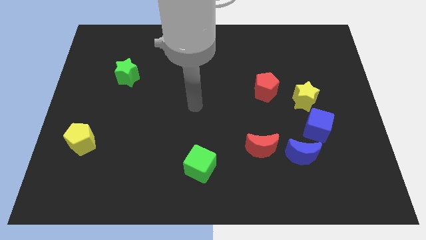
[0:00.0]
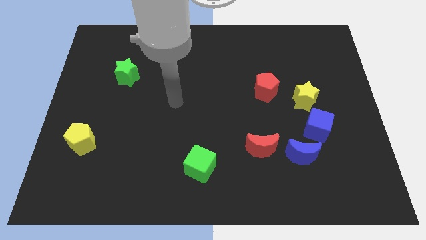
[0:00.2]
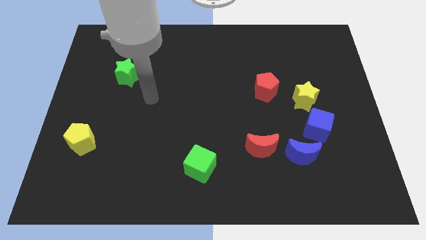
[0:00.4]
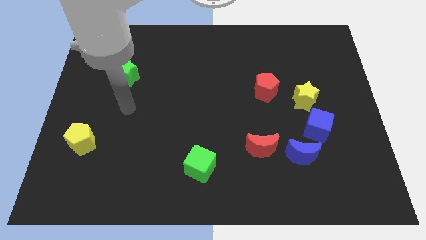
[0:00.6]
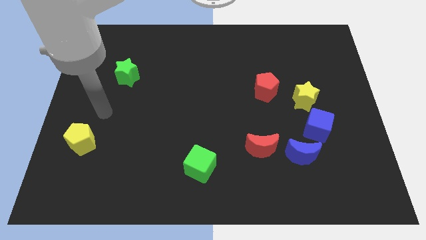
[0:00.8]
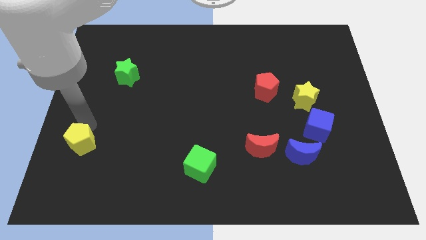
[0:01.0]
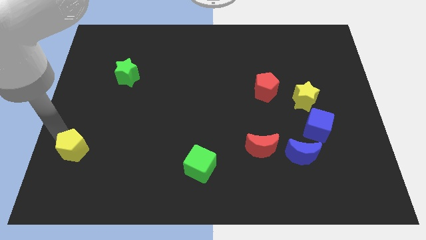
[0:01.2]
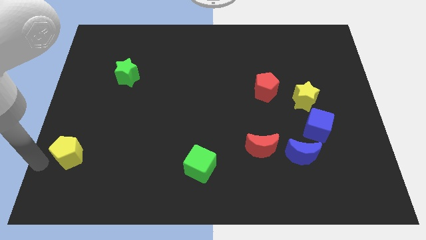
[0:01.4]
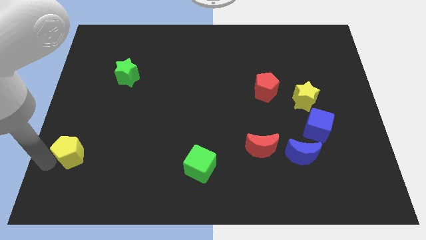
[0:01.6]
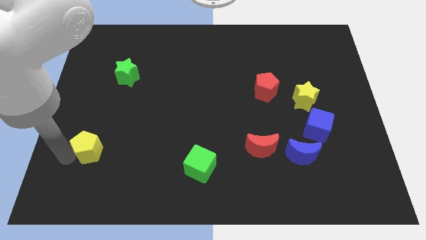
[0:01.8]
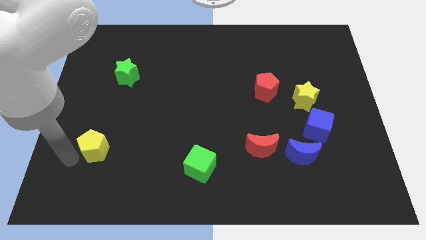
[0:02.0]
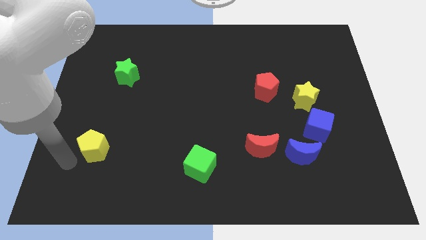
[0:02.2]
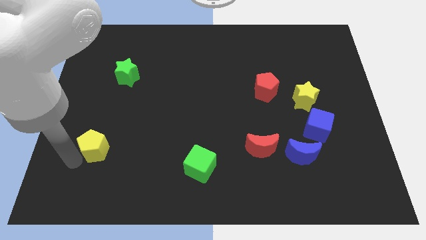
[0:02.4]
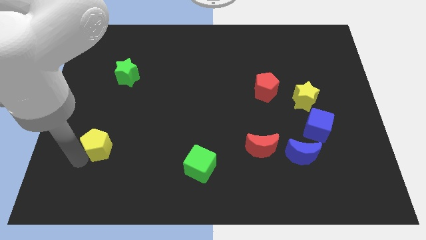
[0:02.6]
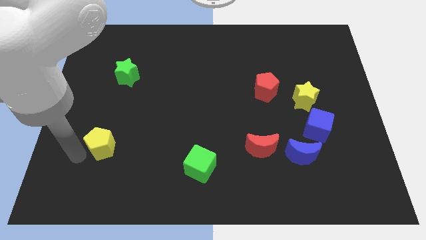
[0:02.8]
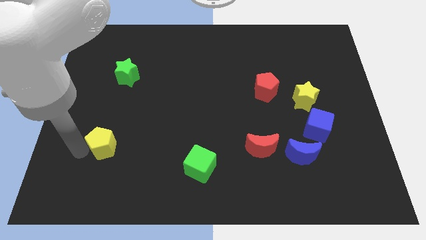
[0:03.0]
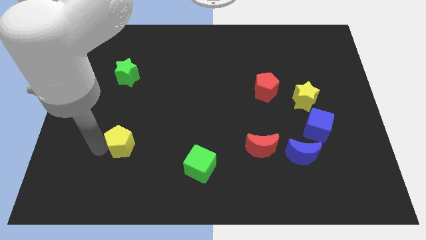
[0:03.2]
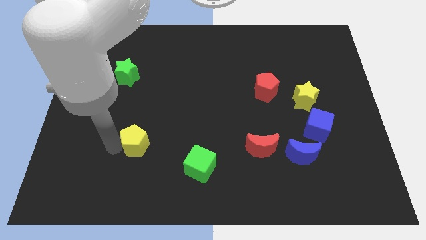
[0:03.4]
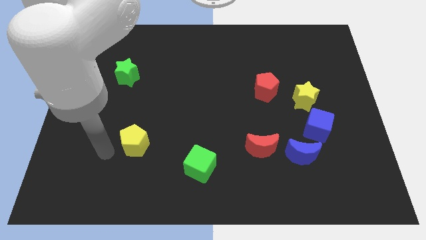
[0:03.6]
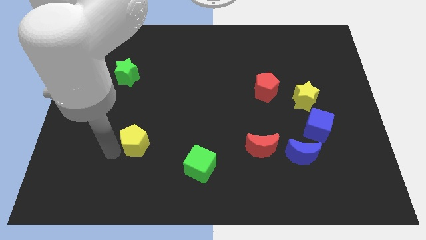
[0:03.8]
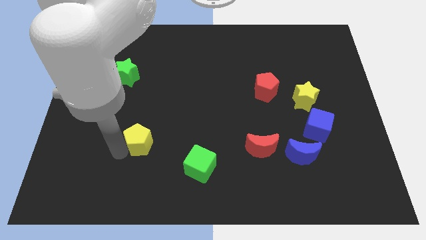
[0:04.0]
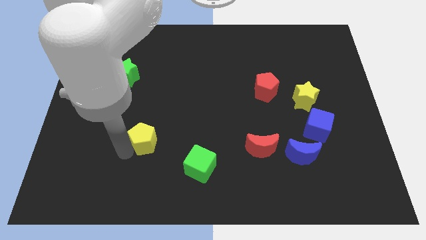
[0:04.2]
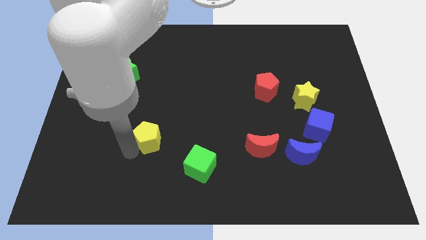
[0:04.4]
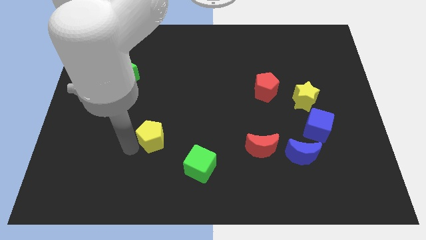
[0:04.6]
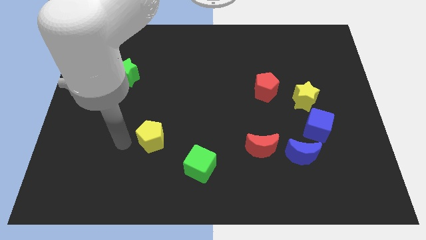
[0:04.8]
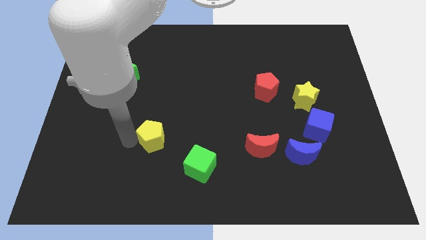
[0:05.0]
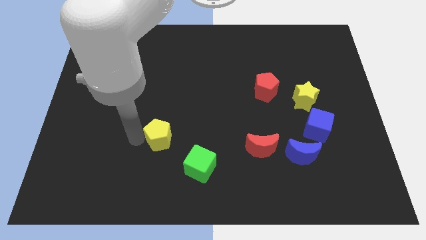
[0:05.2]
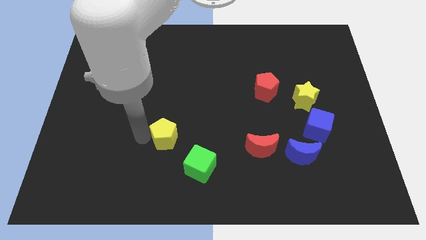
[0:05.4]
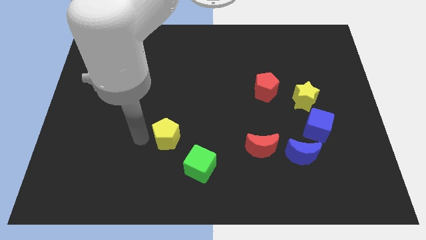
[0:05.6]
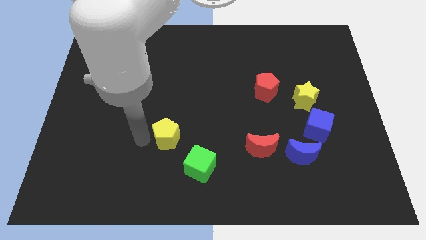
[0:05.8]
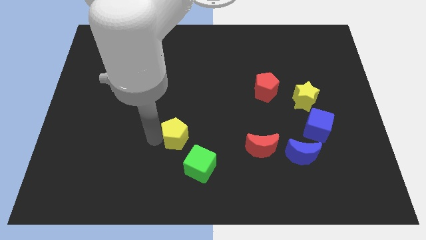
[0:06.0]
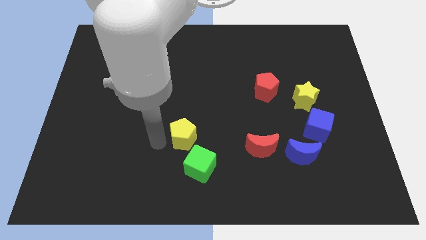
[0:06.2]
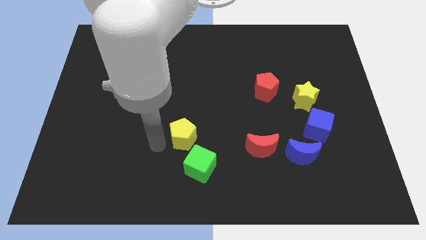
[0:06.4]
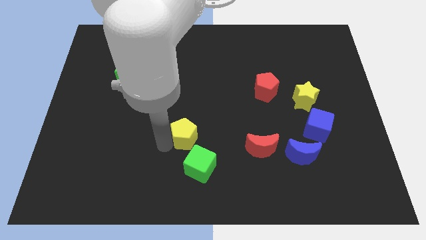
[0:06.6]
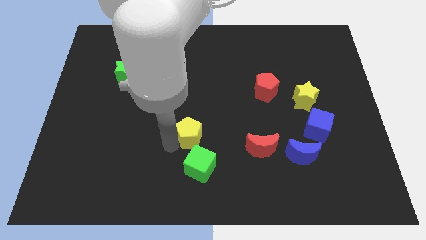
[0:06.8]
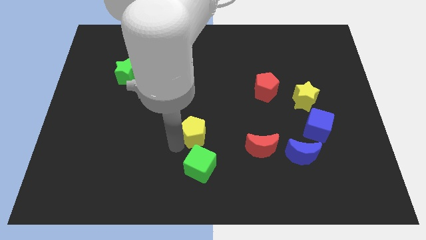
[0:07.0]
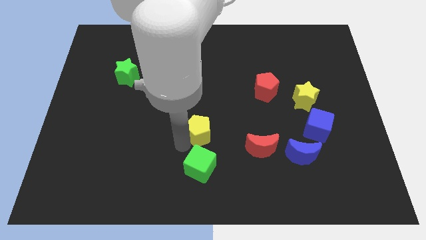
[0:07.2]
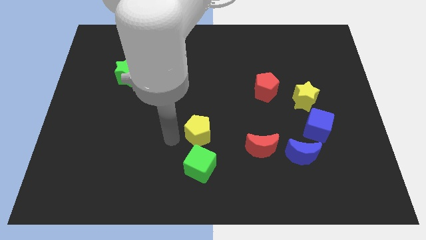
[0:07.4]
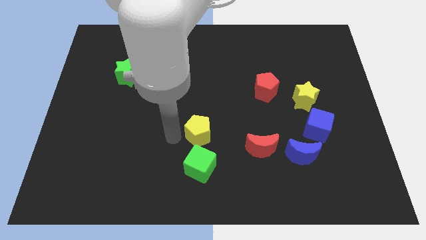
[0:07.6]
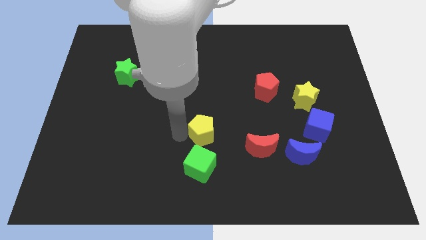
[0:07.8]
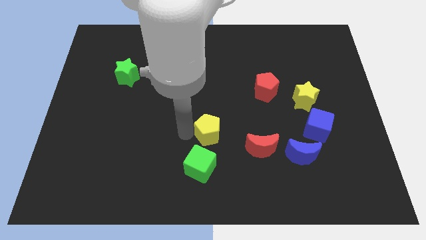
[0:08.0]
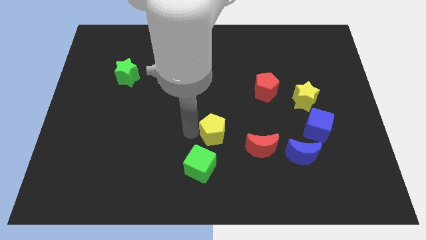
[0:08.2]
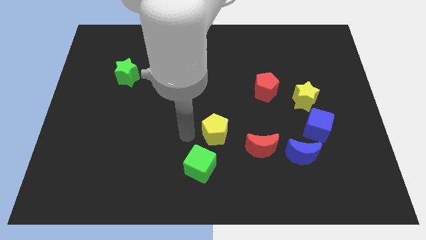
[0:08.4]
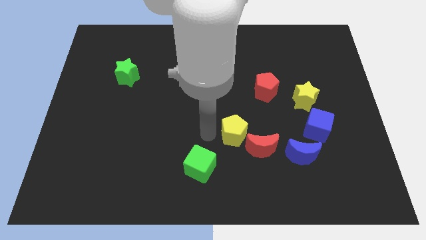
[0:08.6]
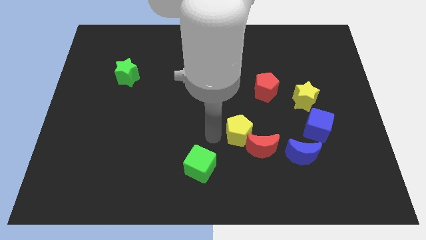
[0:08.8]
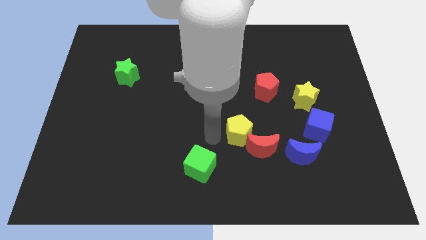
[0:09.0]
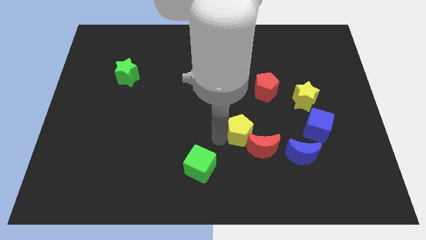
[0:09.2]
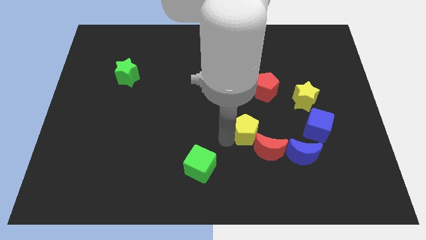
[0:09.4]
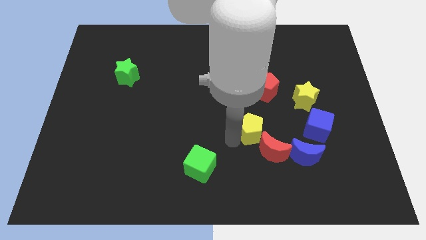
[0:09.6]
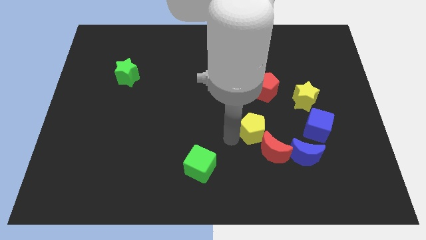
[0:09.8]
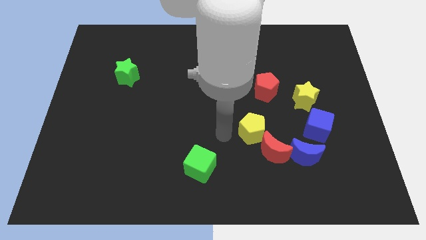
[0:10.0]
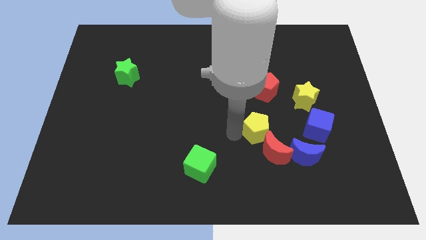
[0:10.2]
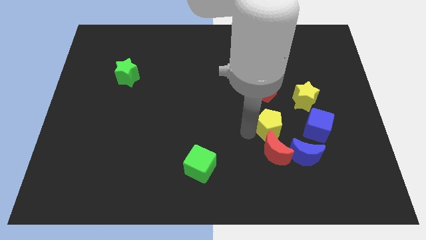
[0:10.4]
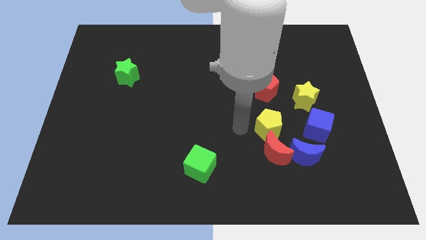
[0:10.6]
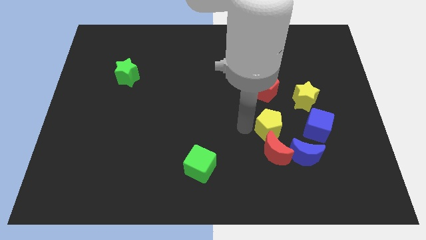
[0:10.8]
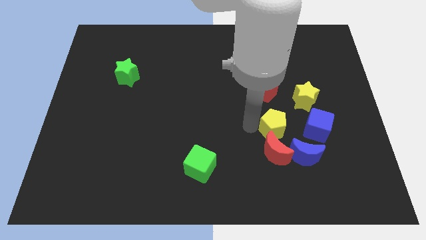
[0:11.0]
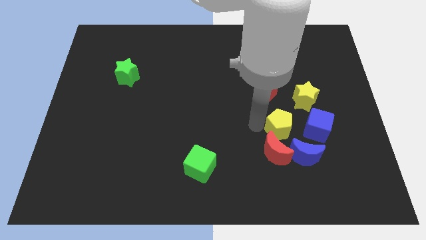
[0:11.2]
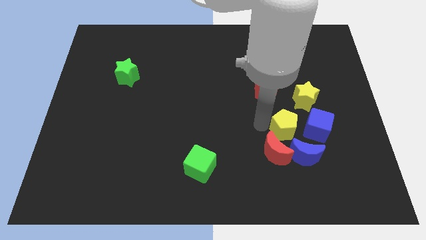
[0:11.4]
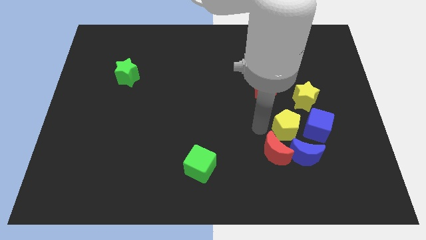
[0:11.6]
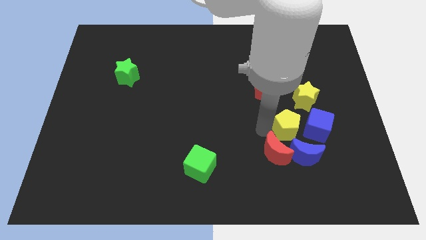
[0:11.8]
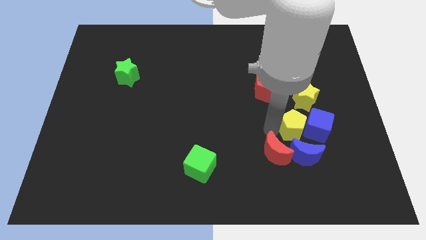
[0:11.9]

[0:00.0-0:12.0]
slide the yellow pentagon towards the blue cube

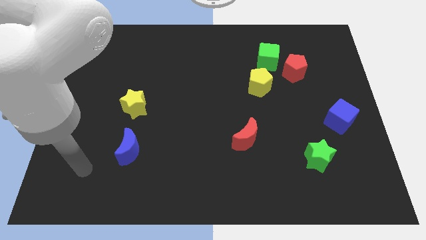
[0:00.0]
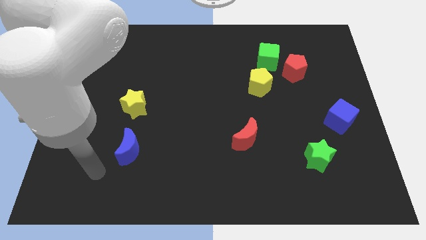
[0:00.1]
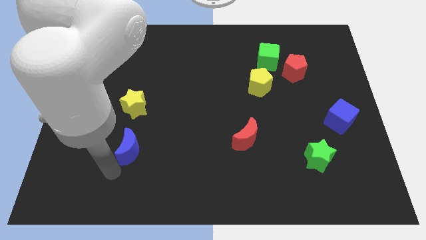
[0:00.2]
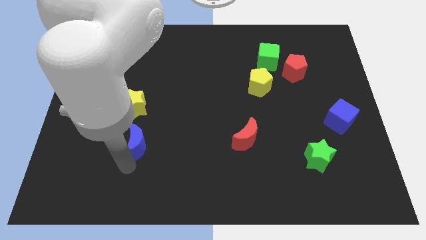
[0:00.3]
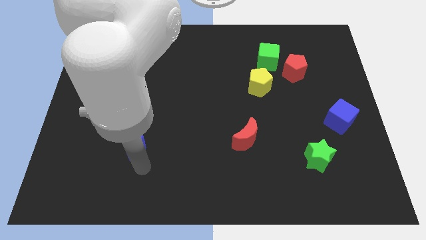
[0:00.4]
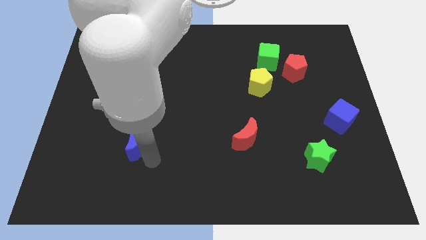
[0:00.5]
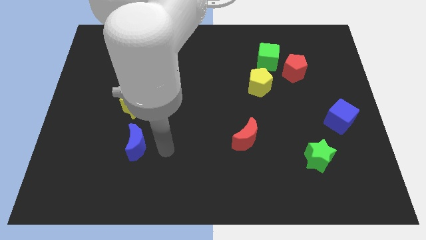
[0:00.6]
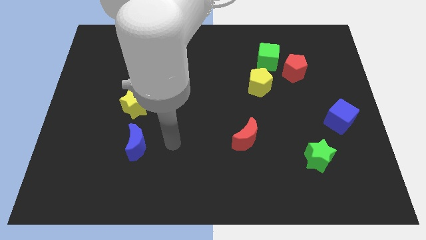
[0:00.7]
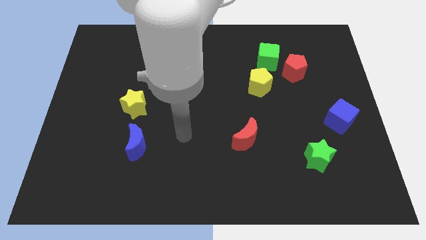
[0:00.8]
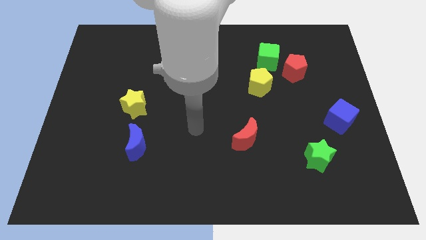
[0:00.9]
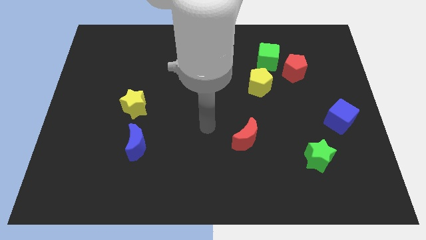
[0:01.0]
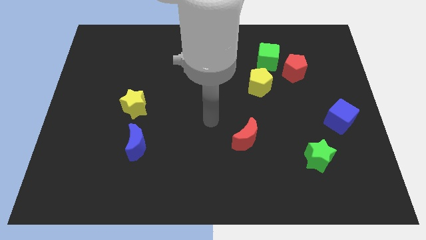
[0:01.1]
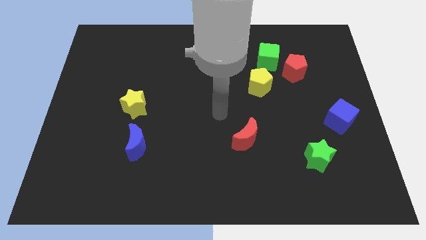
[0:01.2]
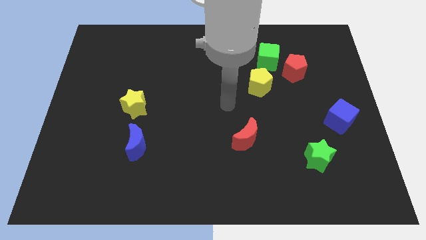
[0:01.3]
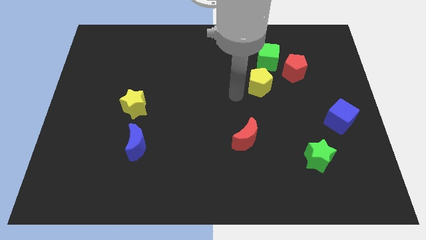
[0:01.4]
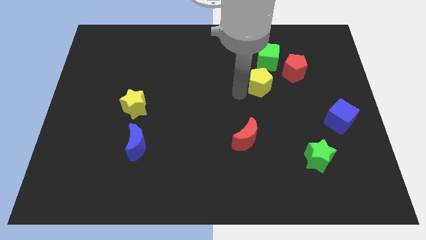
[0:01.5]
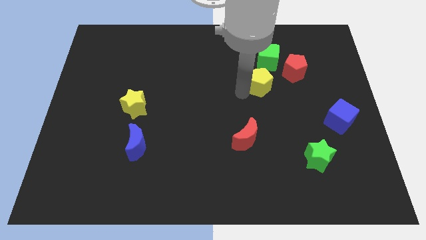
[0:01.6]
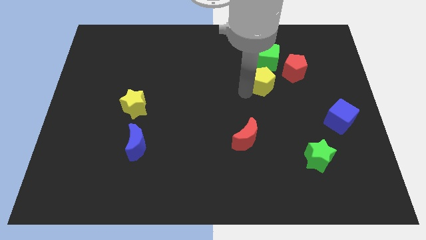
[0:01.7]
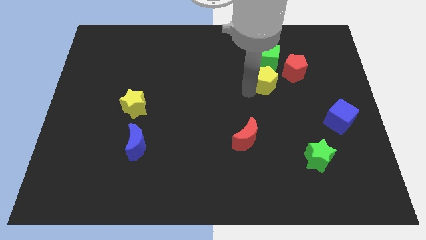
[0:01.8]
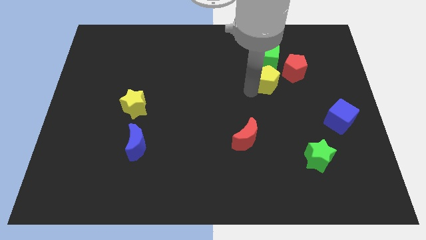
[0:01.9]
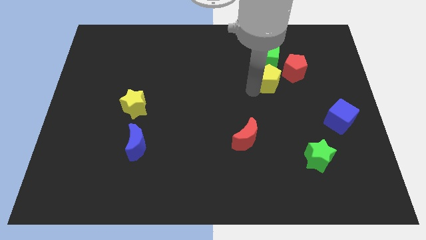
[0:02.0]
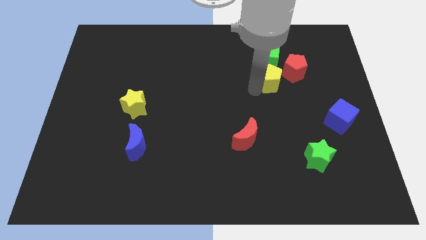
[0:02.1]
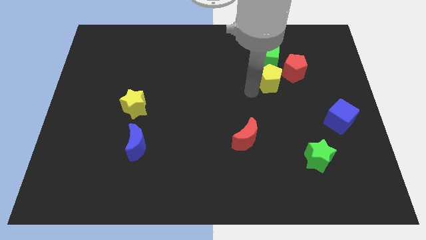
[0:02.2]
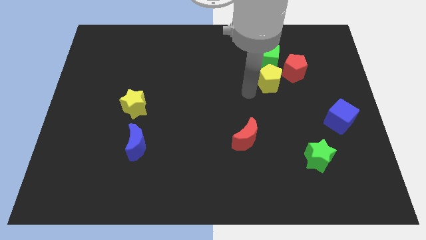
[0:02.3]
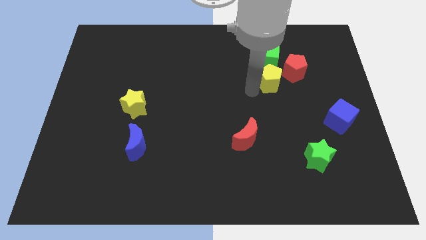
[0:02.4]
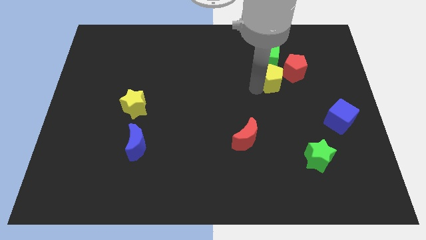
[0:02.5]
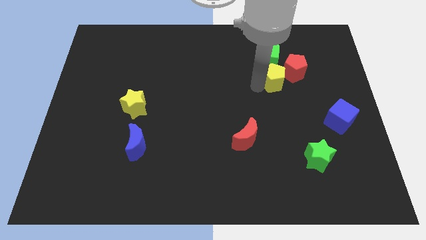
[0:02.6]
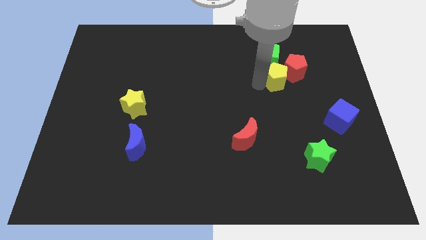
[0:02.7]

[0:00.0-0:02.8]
push the yellow pentagon towards the red pentagon
